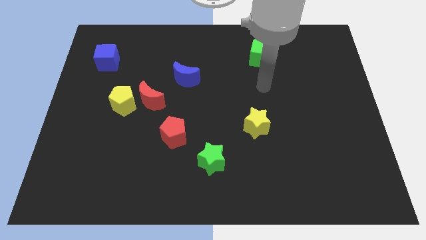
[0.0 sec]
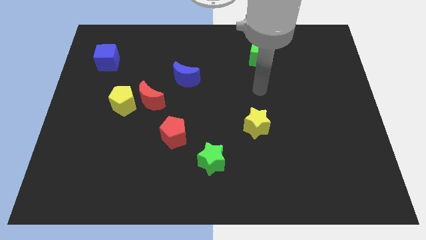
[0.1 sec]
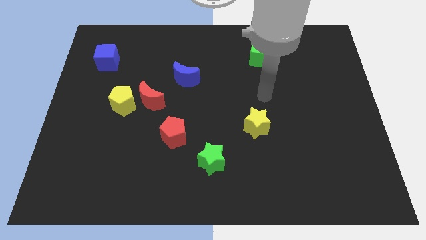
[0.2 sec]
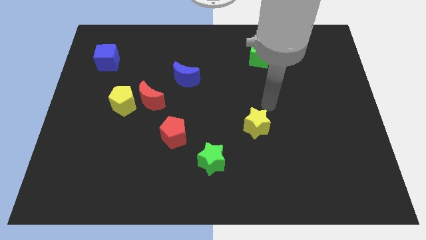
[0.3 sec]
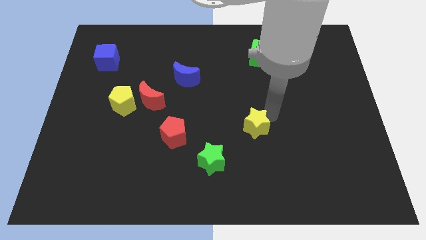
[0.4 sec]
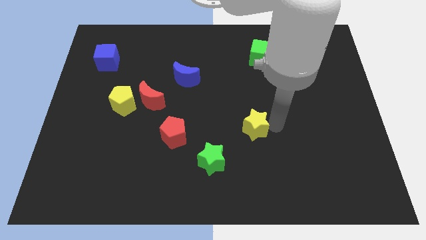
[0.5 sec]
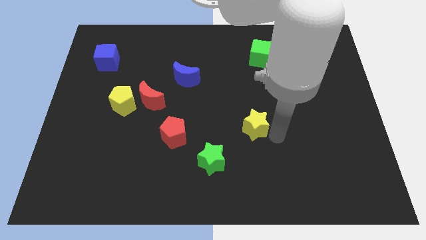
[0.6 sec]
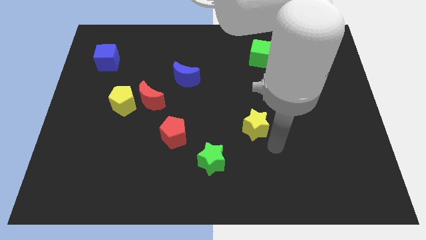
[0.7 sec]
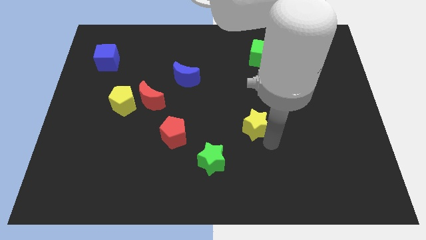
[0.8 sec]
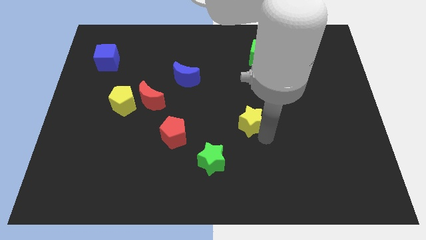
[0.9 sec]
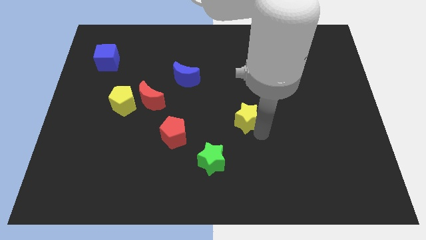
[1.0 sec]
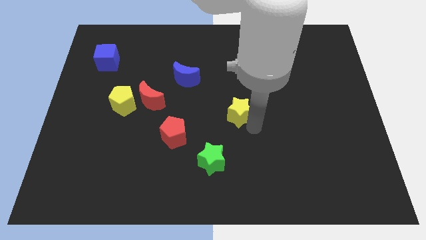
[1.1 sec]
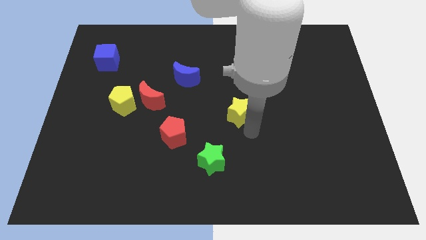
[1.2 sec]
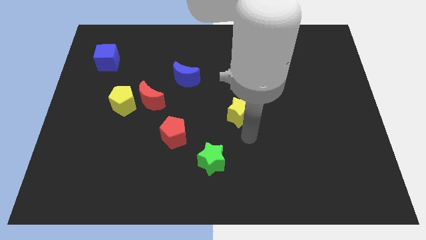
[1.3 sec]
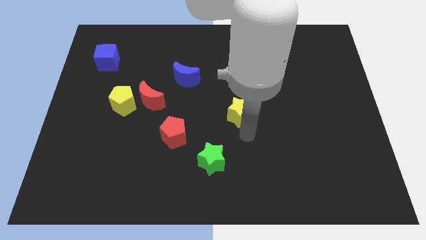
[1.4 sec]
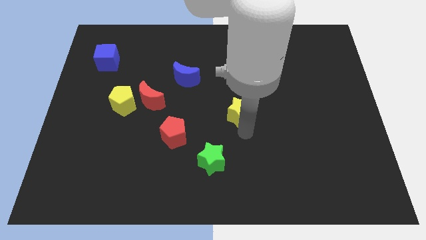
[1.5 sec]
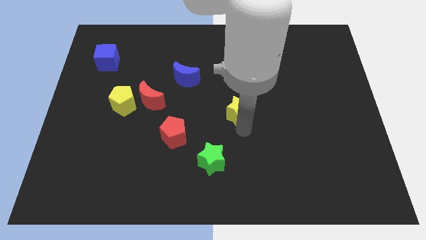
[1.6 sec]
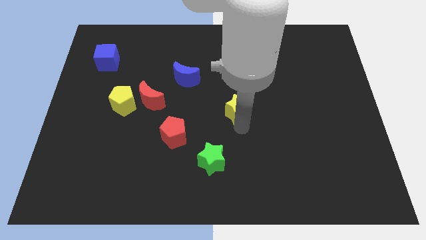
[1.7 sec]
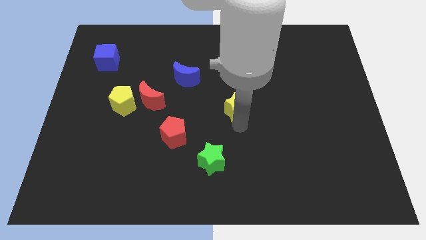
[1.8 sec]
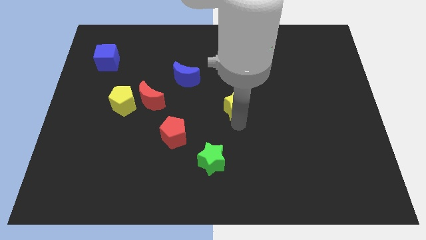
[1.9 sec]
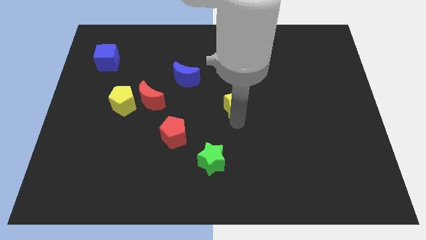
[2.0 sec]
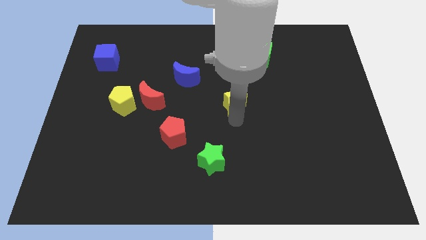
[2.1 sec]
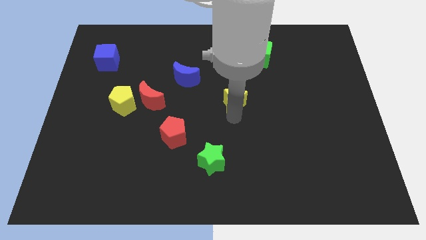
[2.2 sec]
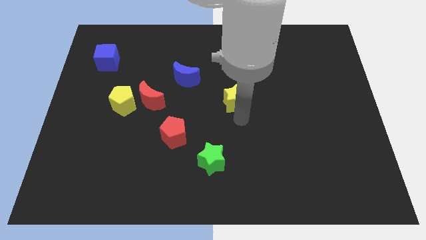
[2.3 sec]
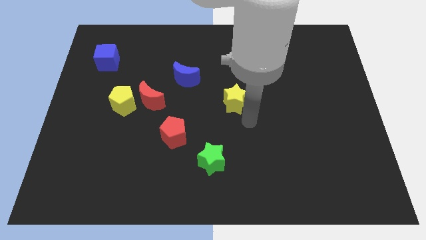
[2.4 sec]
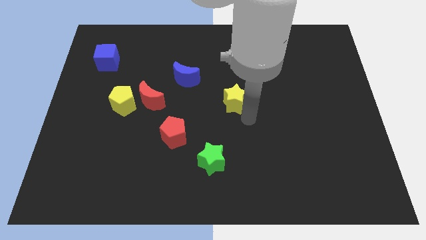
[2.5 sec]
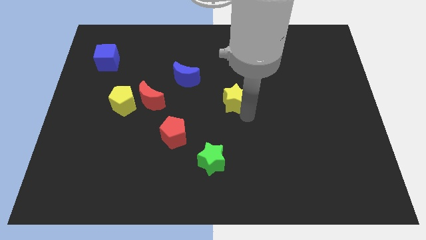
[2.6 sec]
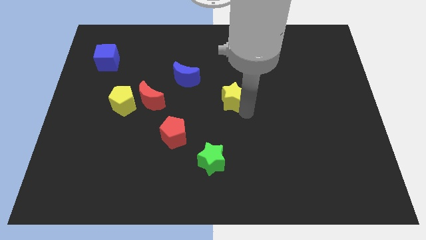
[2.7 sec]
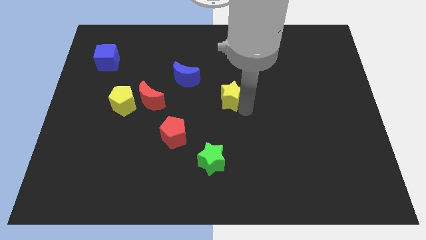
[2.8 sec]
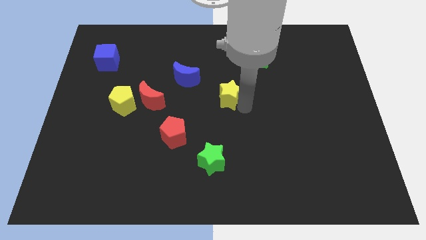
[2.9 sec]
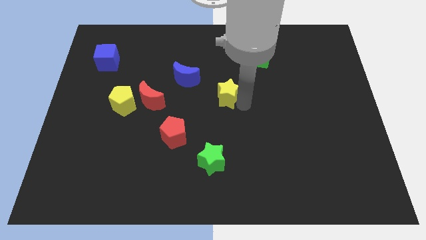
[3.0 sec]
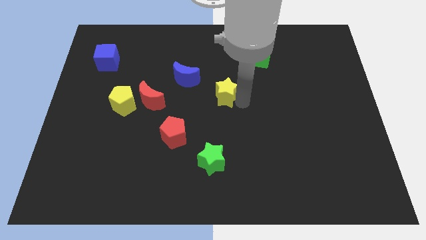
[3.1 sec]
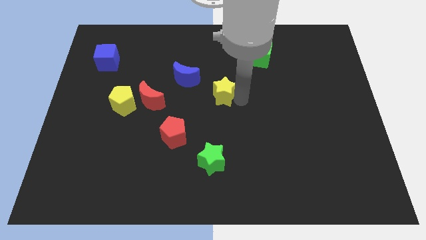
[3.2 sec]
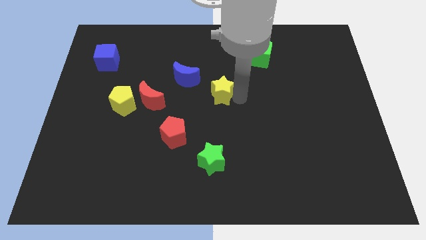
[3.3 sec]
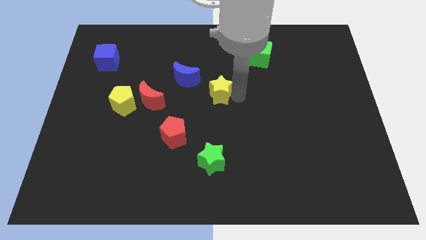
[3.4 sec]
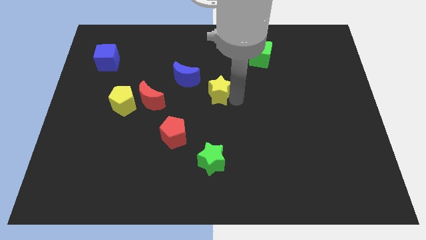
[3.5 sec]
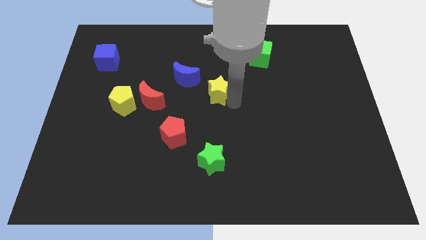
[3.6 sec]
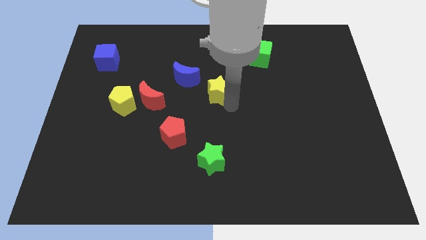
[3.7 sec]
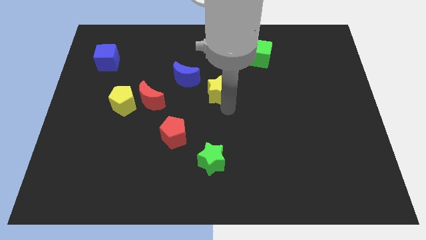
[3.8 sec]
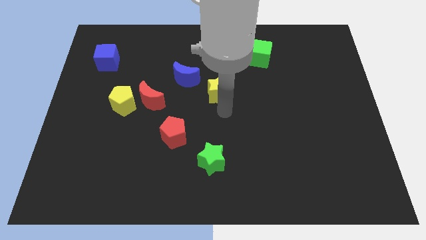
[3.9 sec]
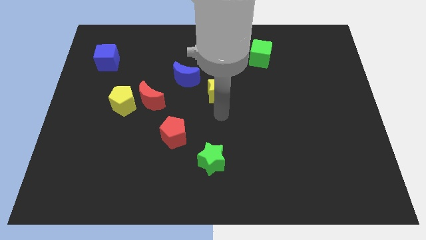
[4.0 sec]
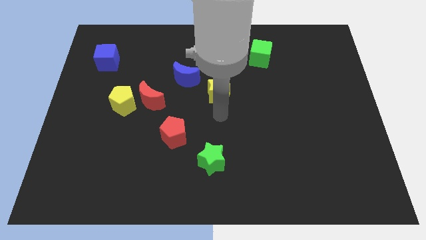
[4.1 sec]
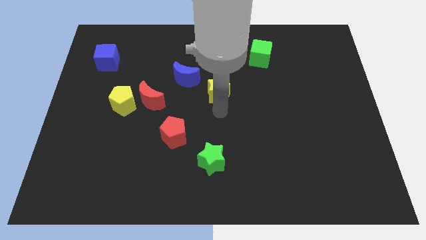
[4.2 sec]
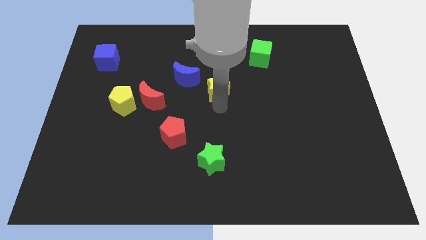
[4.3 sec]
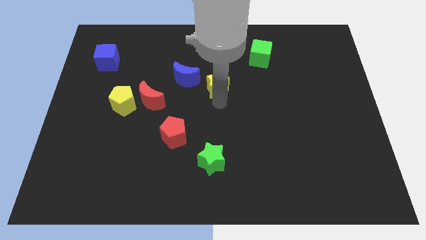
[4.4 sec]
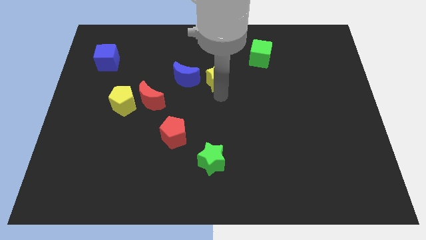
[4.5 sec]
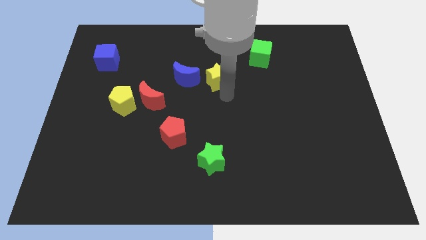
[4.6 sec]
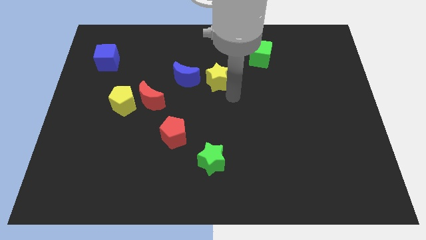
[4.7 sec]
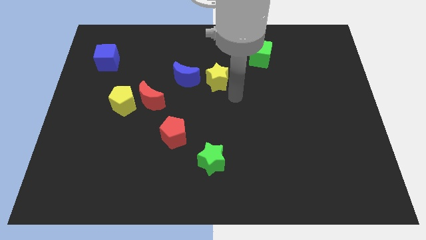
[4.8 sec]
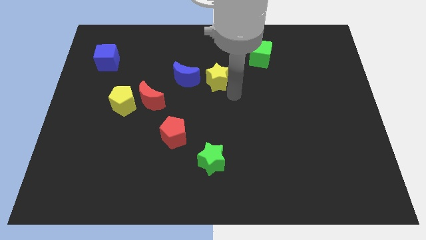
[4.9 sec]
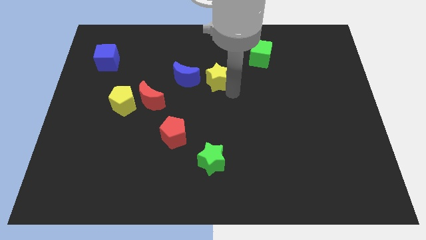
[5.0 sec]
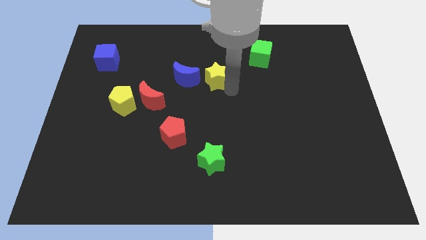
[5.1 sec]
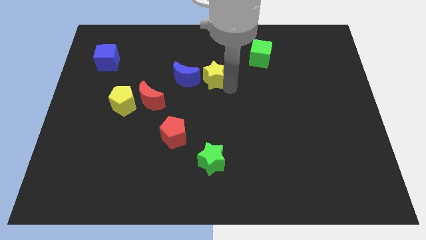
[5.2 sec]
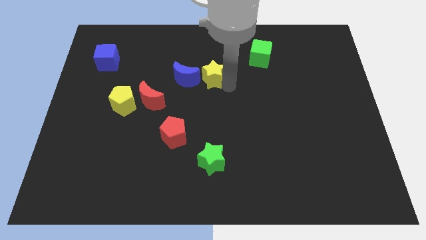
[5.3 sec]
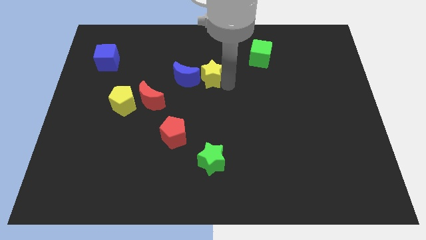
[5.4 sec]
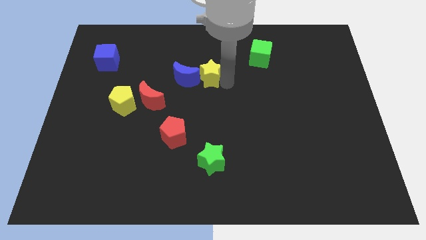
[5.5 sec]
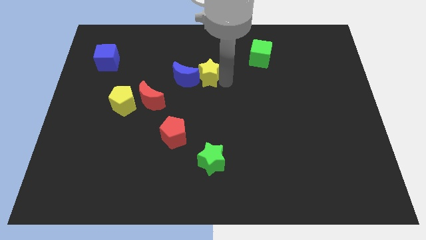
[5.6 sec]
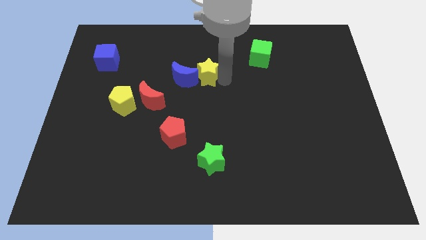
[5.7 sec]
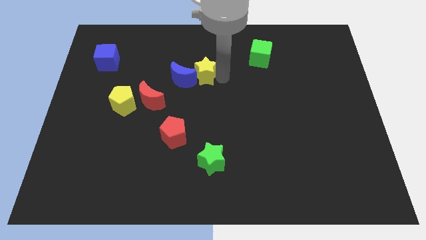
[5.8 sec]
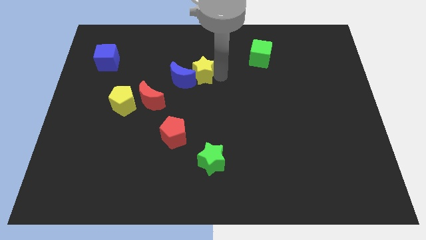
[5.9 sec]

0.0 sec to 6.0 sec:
slide the yellow star up and left diagonally

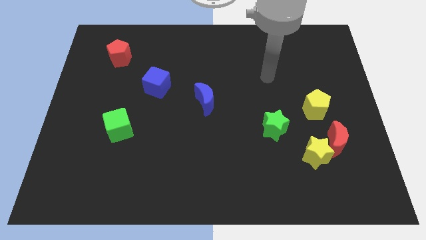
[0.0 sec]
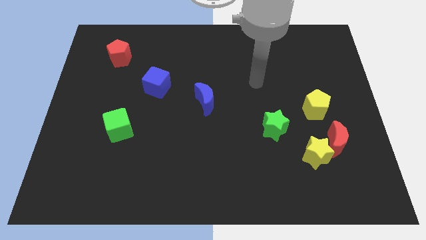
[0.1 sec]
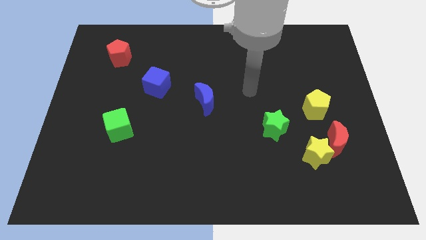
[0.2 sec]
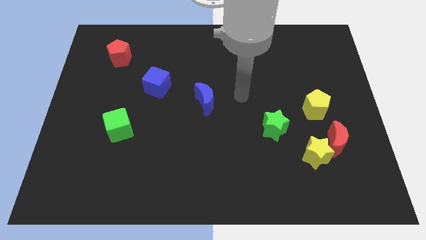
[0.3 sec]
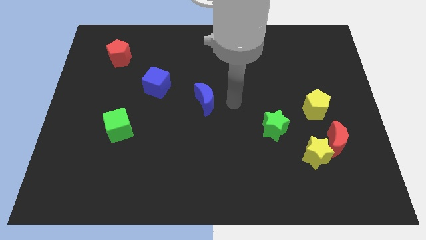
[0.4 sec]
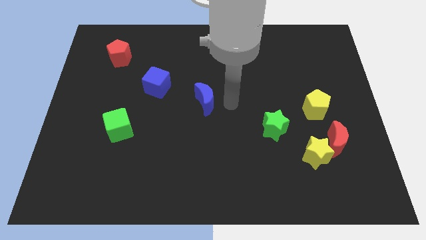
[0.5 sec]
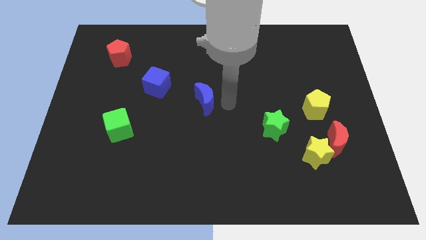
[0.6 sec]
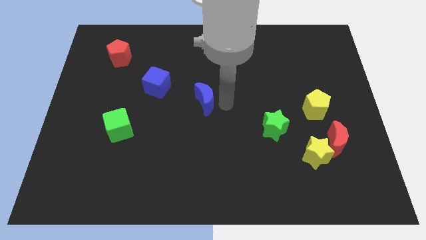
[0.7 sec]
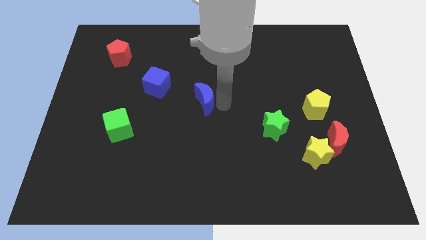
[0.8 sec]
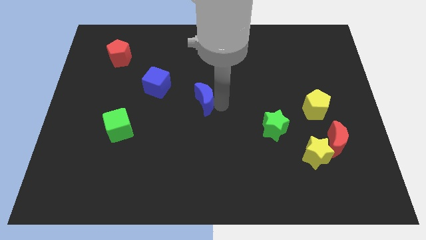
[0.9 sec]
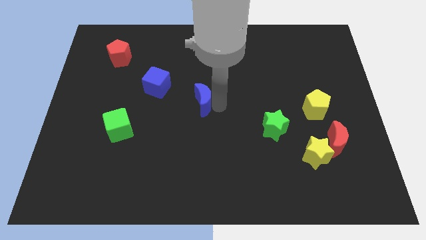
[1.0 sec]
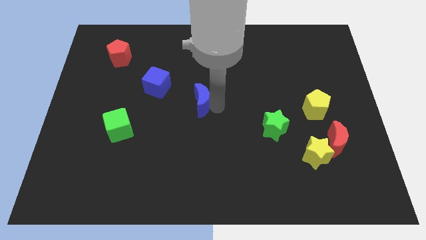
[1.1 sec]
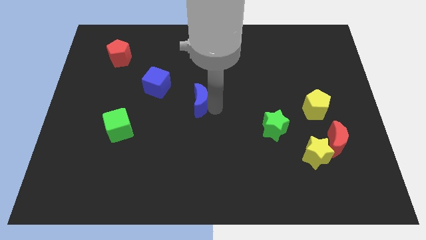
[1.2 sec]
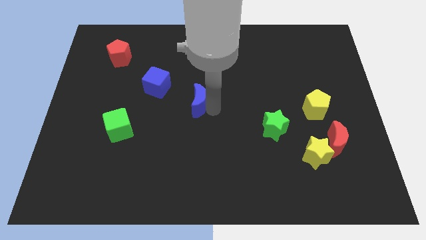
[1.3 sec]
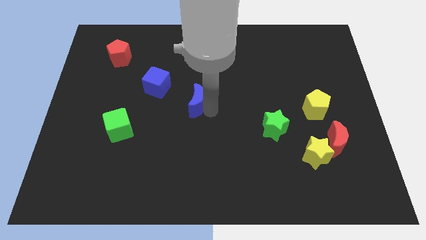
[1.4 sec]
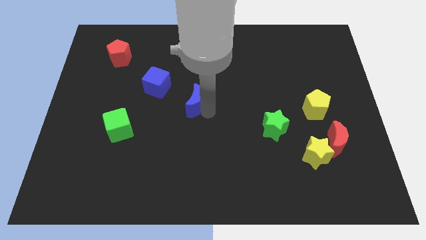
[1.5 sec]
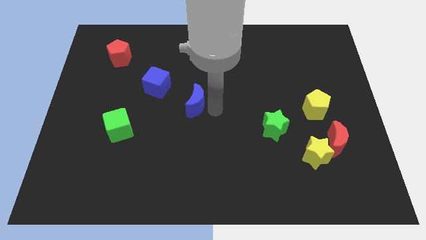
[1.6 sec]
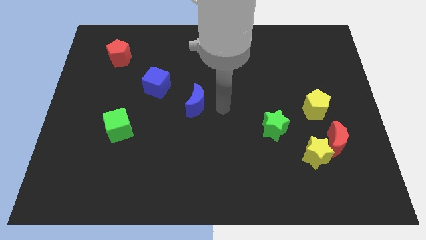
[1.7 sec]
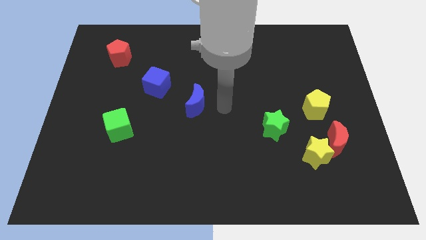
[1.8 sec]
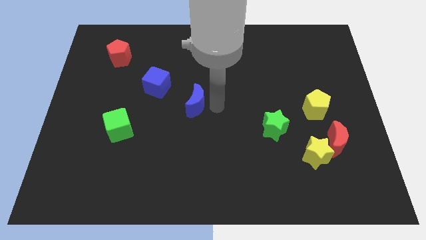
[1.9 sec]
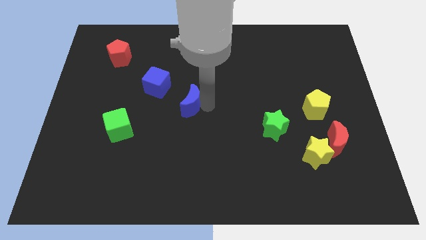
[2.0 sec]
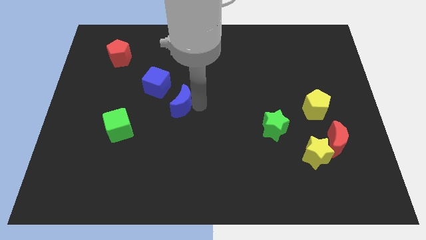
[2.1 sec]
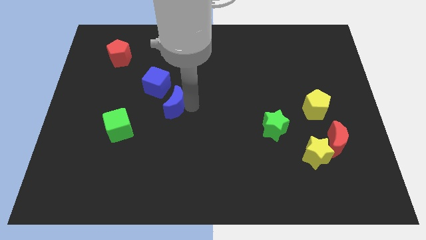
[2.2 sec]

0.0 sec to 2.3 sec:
move the blue moon slightly left

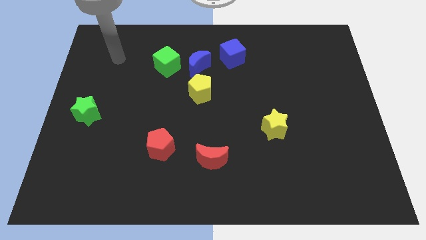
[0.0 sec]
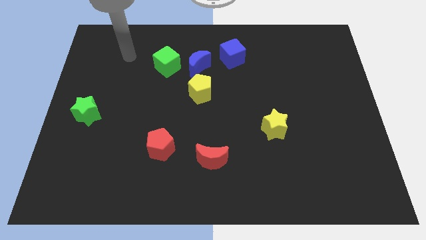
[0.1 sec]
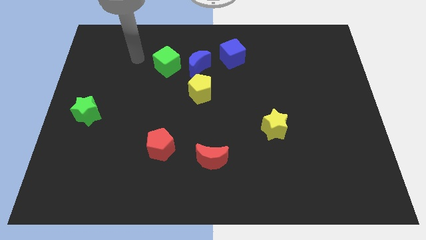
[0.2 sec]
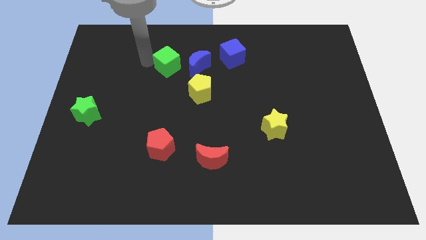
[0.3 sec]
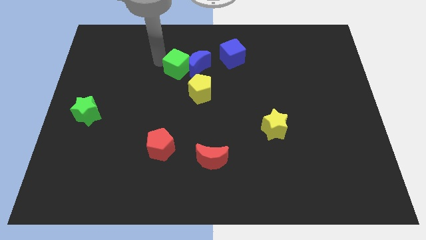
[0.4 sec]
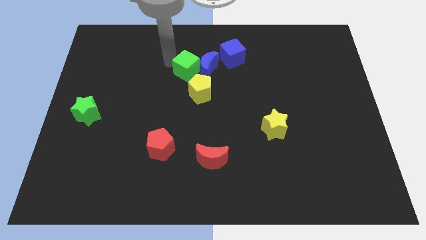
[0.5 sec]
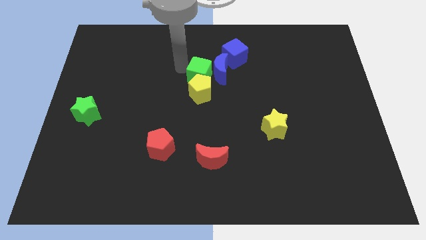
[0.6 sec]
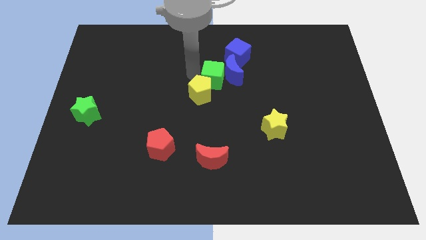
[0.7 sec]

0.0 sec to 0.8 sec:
slide the blue moon to the right slightly
